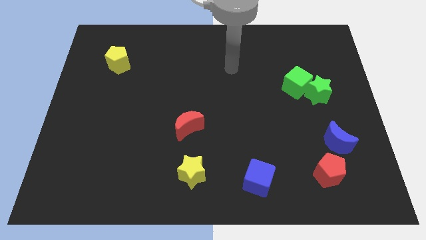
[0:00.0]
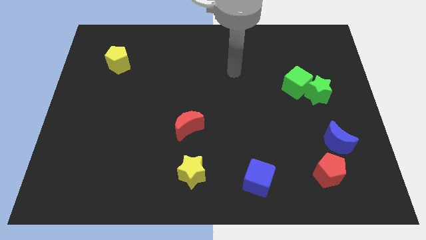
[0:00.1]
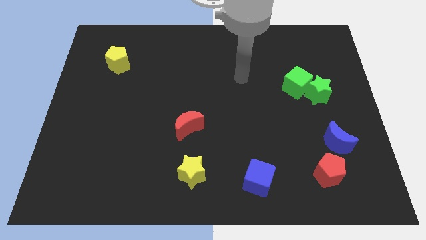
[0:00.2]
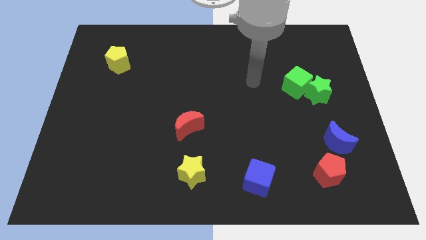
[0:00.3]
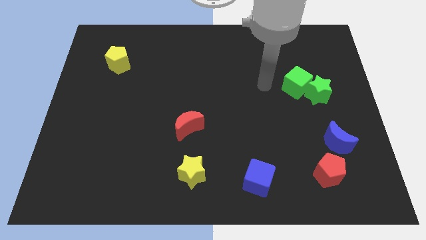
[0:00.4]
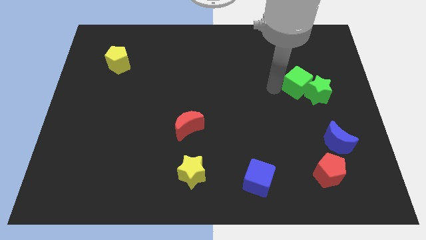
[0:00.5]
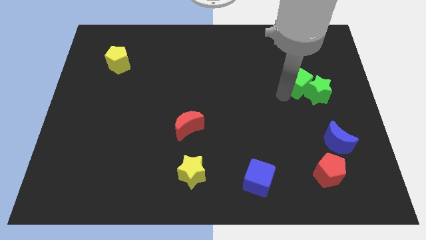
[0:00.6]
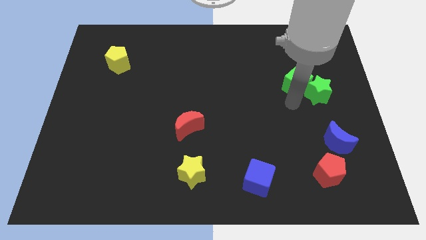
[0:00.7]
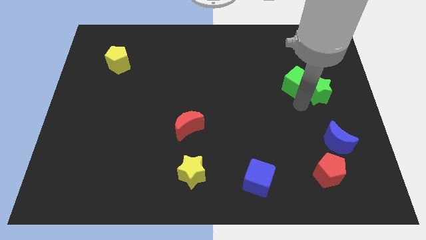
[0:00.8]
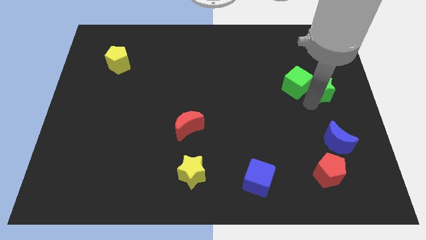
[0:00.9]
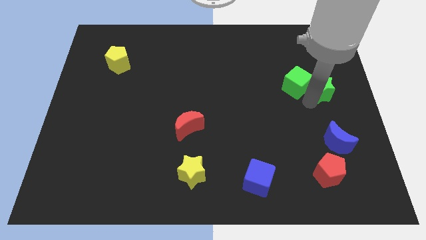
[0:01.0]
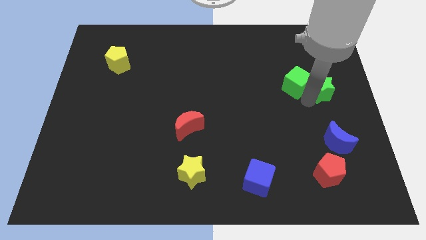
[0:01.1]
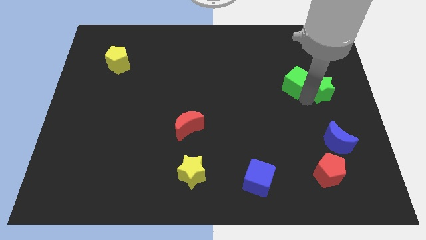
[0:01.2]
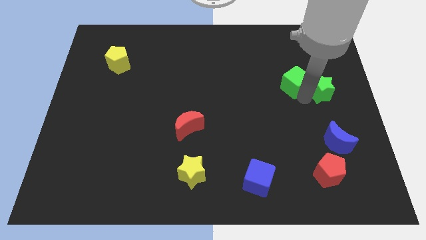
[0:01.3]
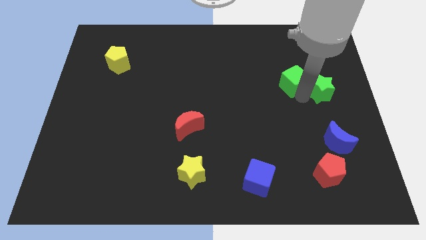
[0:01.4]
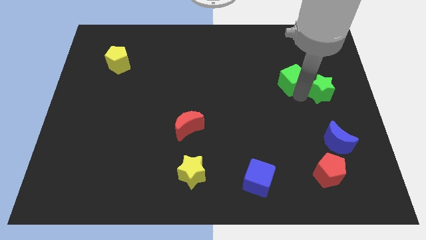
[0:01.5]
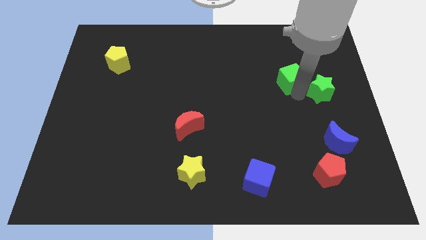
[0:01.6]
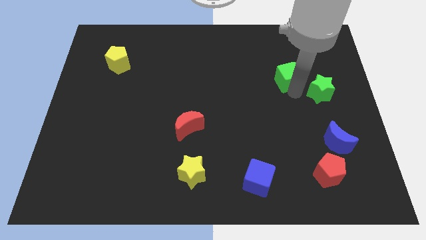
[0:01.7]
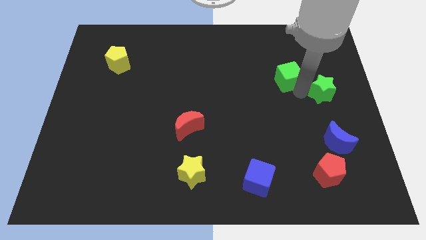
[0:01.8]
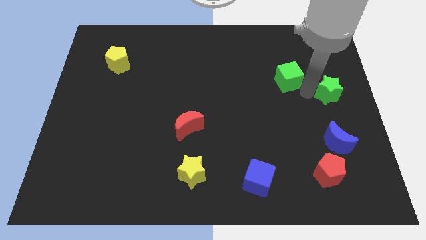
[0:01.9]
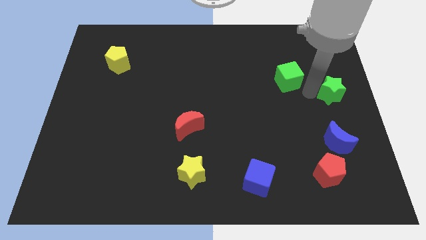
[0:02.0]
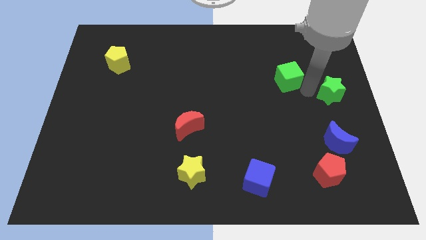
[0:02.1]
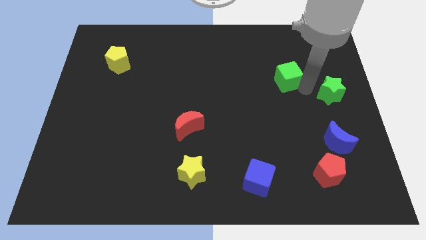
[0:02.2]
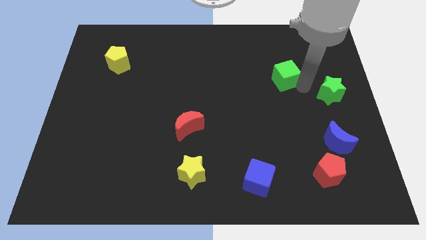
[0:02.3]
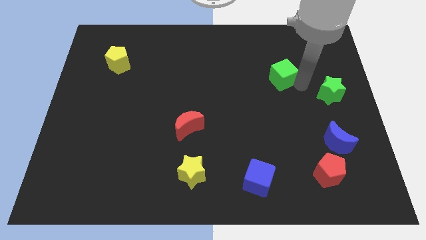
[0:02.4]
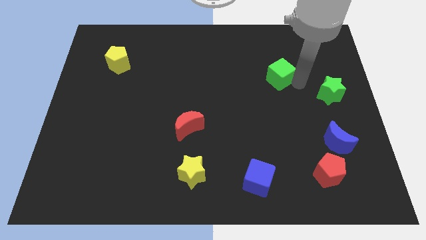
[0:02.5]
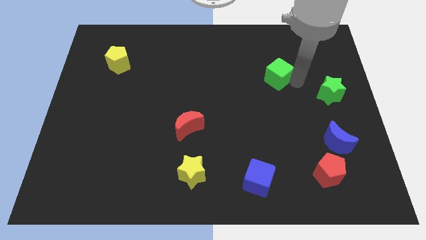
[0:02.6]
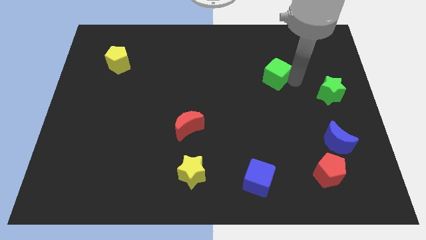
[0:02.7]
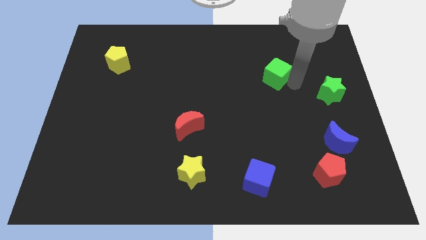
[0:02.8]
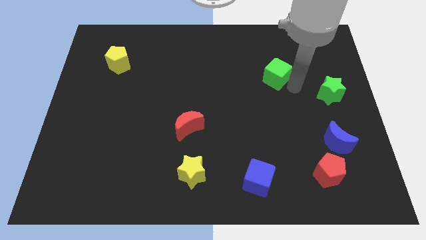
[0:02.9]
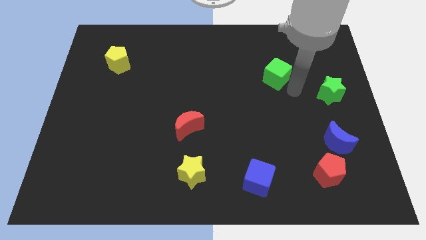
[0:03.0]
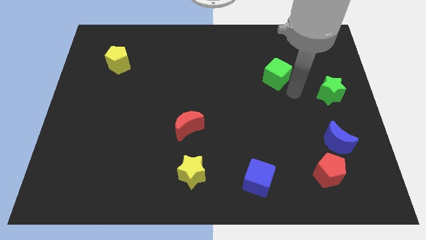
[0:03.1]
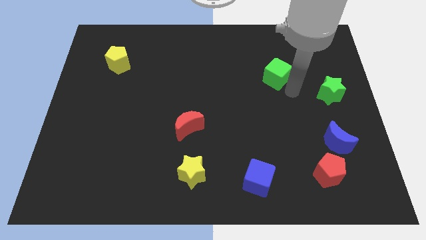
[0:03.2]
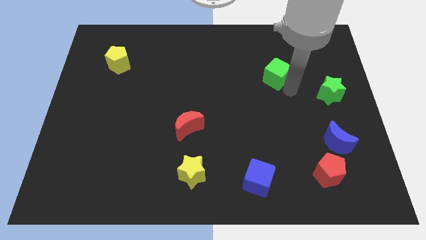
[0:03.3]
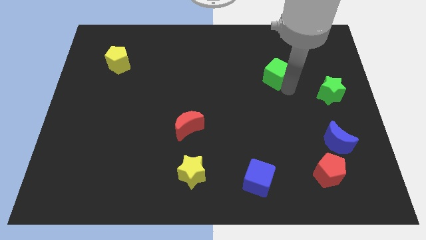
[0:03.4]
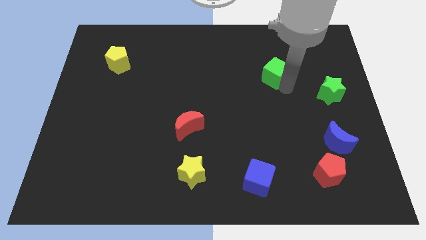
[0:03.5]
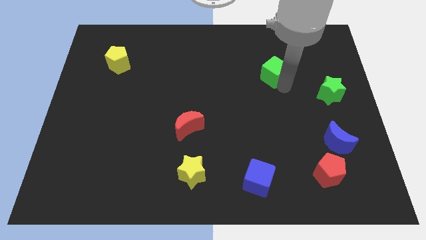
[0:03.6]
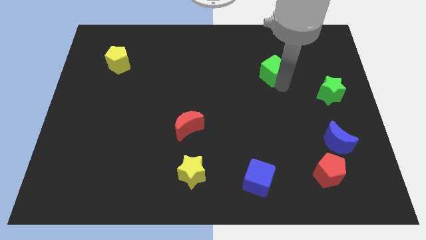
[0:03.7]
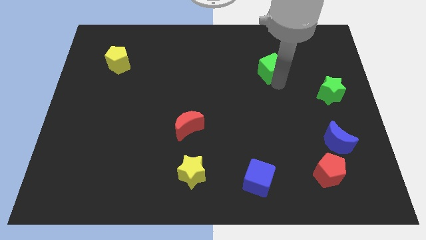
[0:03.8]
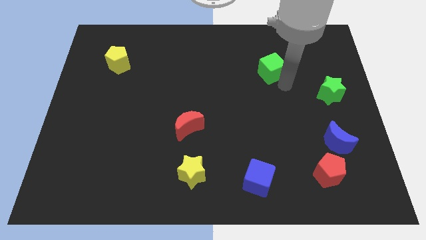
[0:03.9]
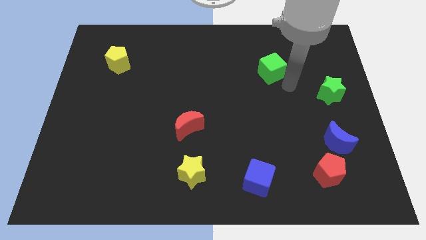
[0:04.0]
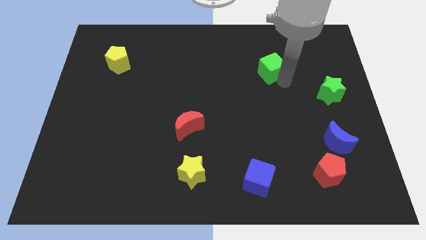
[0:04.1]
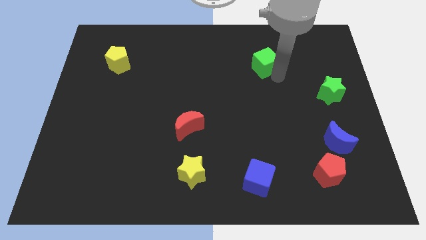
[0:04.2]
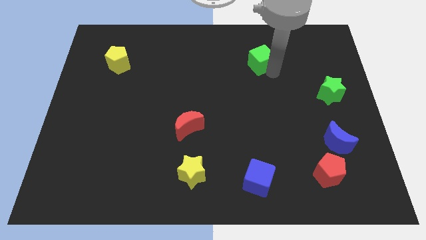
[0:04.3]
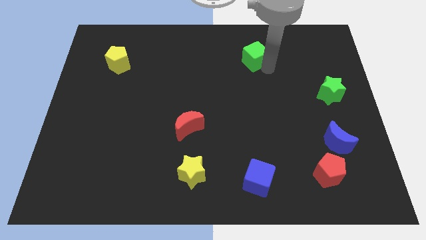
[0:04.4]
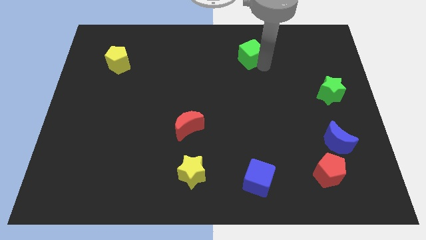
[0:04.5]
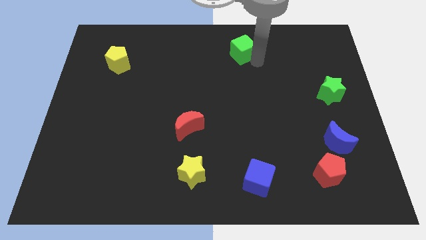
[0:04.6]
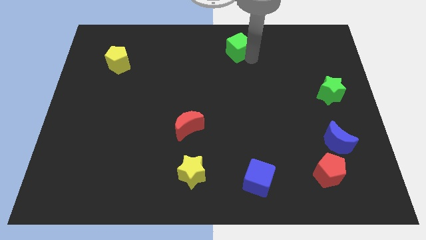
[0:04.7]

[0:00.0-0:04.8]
move the green cube to the top

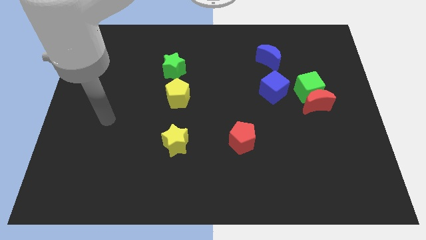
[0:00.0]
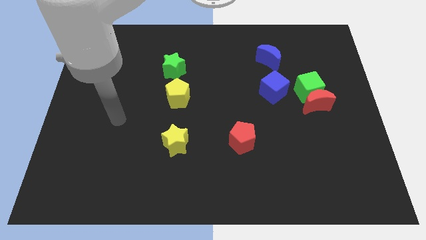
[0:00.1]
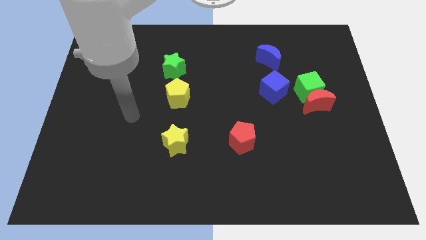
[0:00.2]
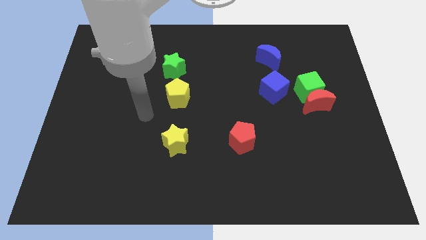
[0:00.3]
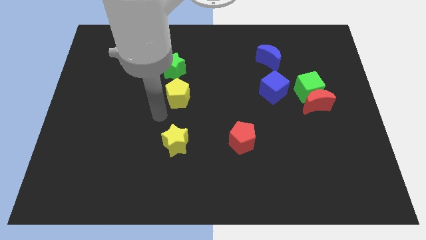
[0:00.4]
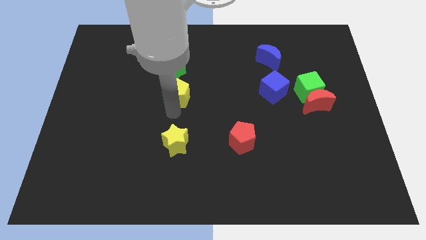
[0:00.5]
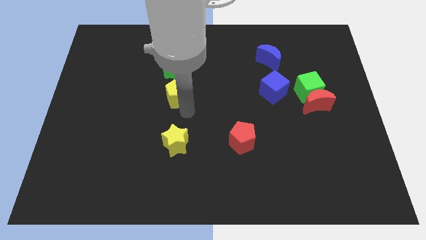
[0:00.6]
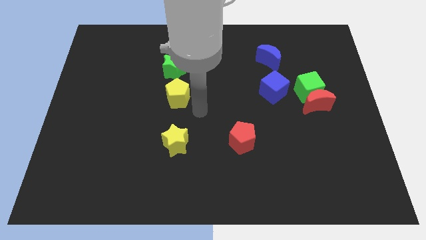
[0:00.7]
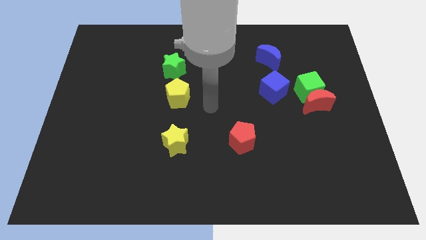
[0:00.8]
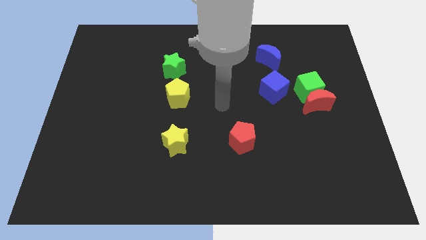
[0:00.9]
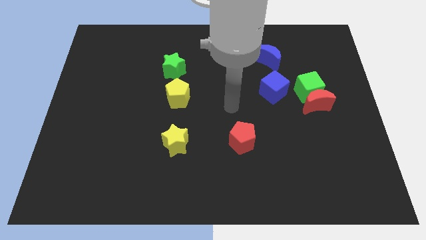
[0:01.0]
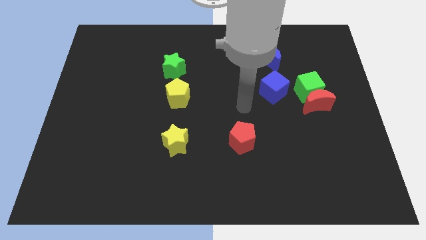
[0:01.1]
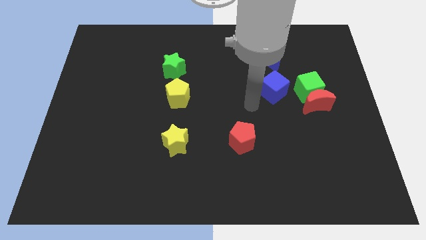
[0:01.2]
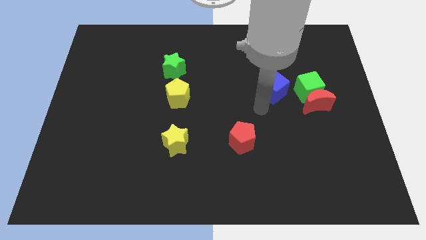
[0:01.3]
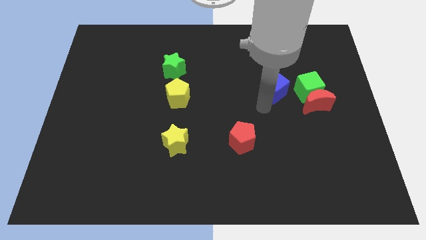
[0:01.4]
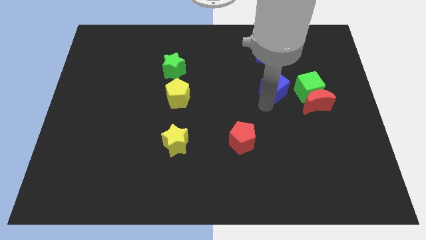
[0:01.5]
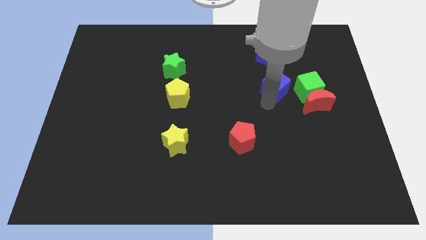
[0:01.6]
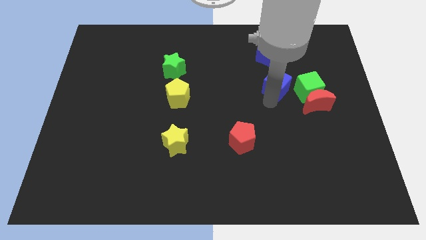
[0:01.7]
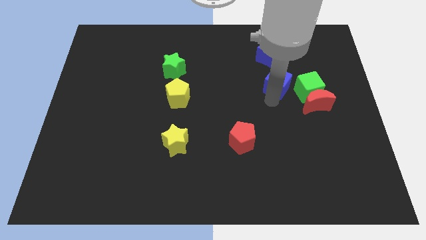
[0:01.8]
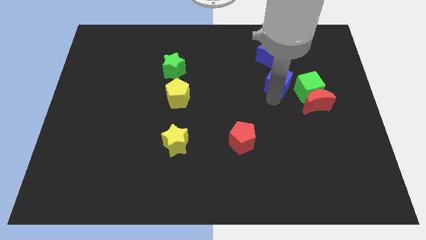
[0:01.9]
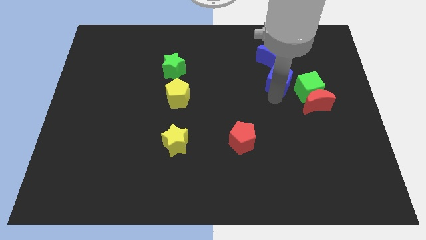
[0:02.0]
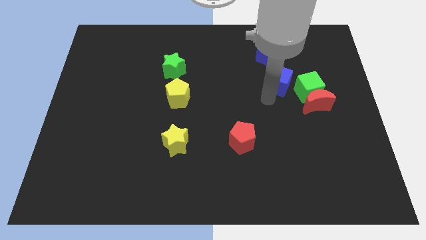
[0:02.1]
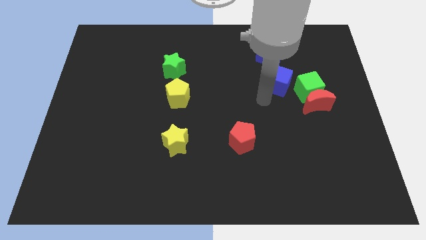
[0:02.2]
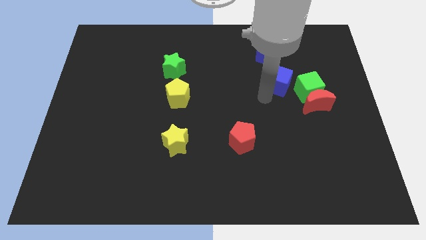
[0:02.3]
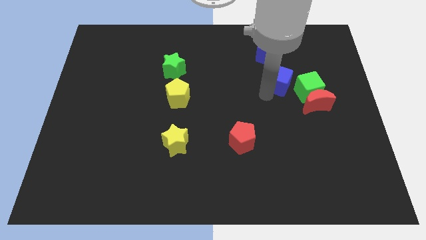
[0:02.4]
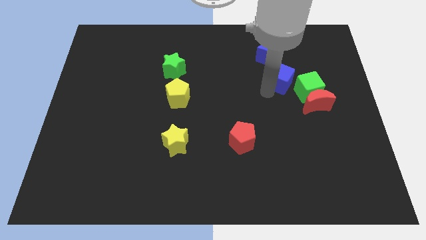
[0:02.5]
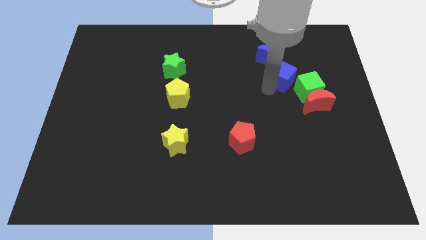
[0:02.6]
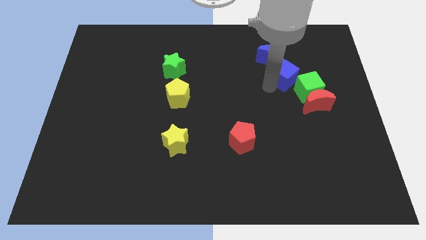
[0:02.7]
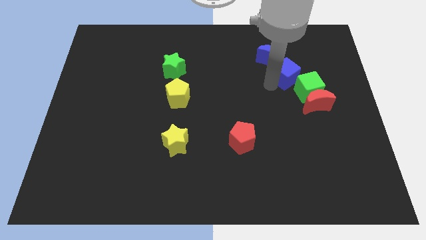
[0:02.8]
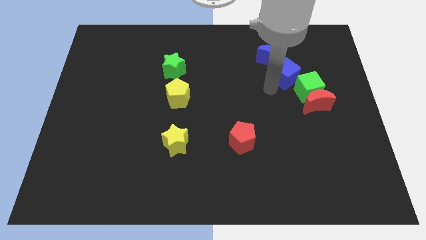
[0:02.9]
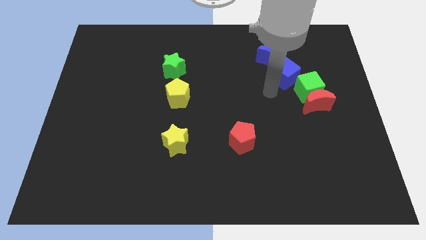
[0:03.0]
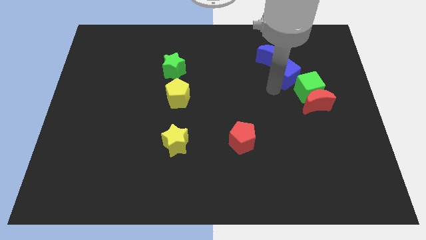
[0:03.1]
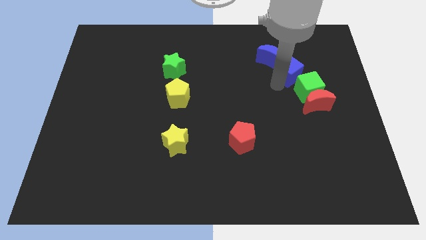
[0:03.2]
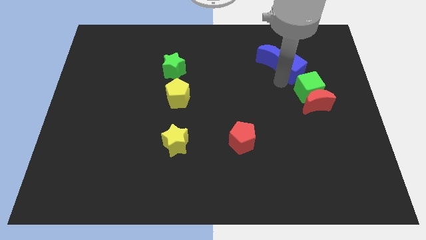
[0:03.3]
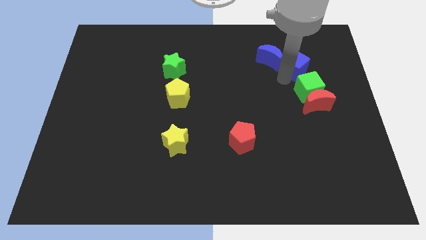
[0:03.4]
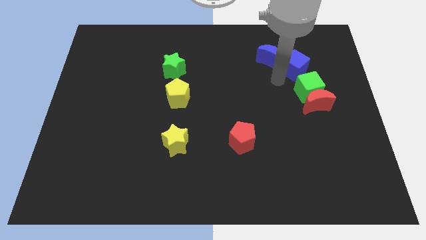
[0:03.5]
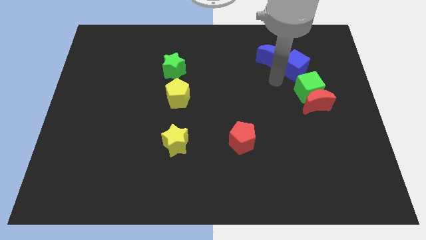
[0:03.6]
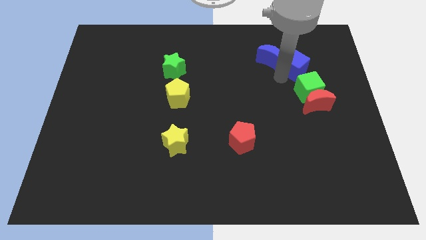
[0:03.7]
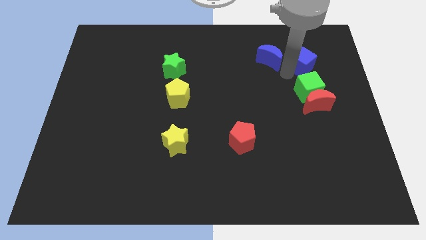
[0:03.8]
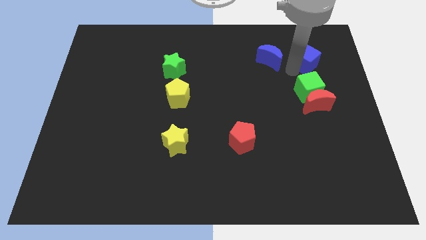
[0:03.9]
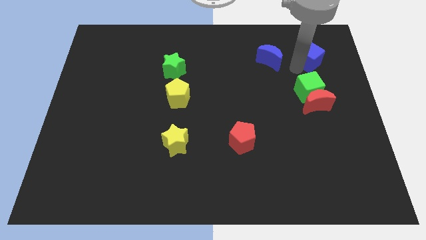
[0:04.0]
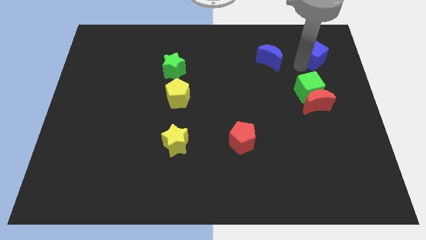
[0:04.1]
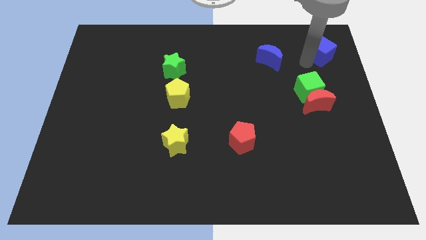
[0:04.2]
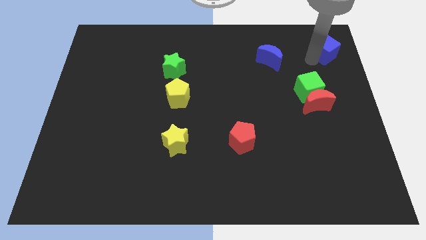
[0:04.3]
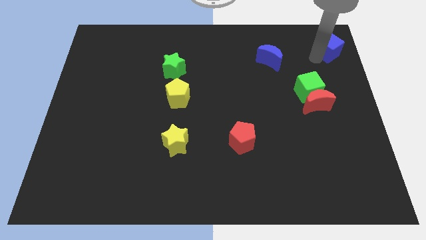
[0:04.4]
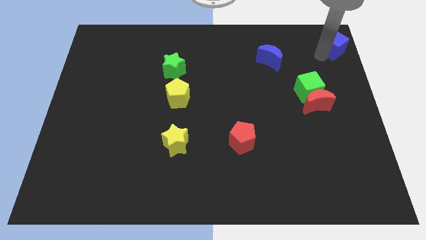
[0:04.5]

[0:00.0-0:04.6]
push the blue cube to the top right corner
